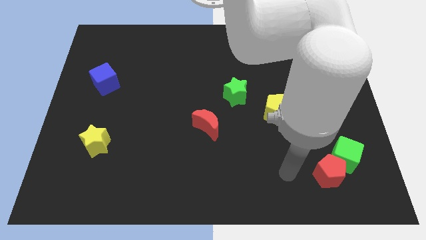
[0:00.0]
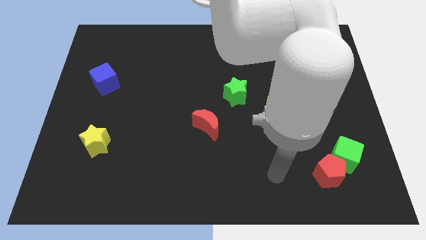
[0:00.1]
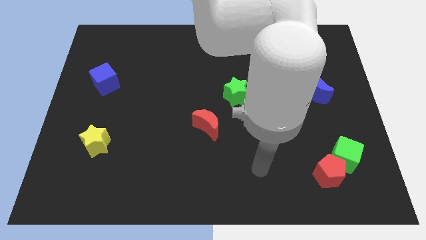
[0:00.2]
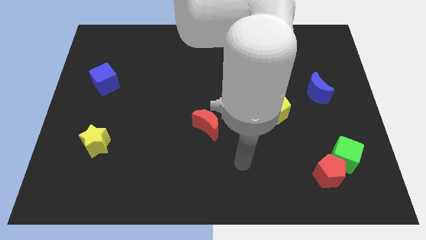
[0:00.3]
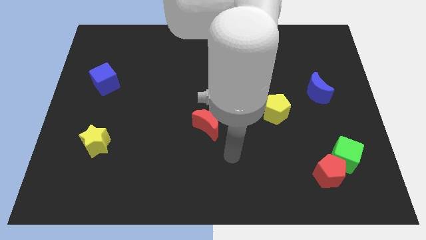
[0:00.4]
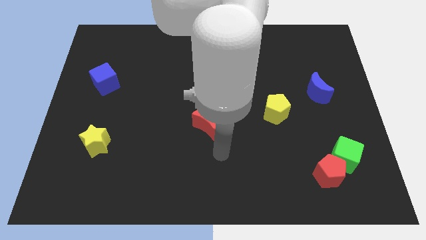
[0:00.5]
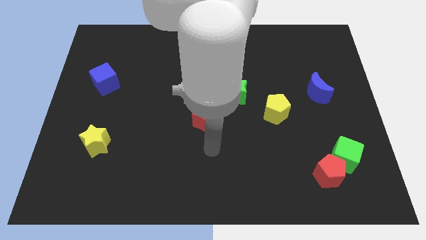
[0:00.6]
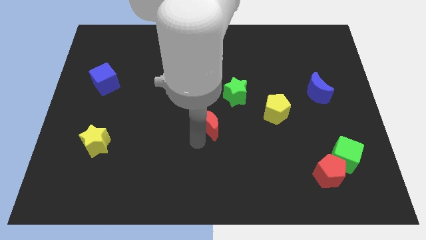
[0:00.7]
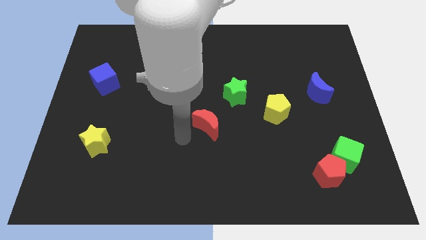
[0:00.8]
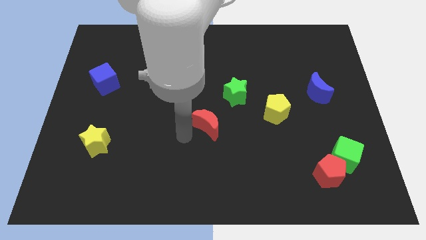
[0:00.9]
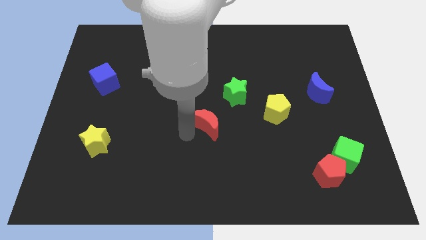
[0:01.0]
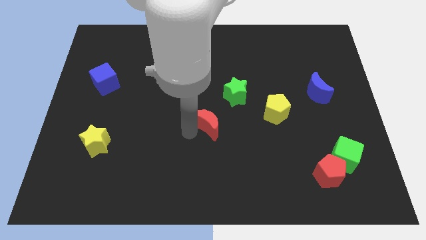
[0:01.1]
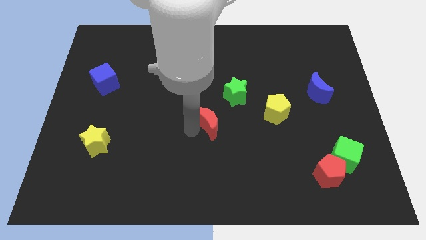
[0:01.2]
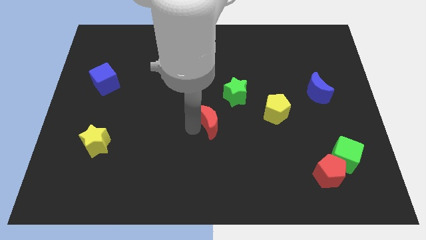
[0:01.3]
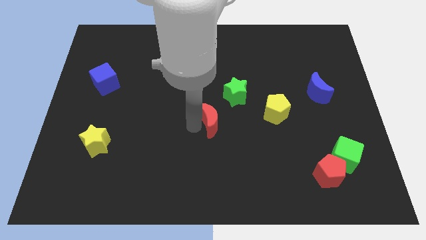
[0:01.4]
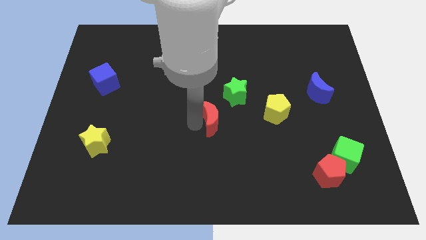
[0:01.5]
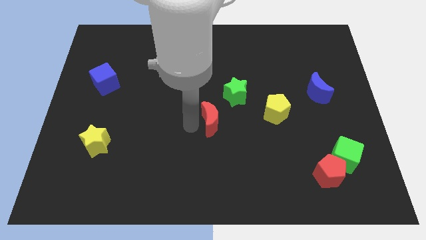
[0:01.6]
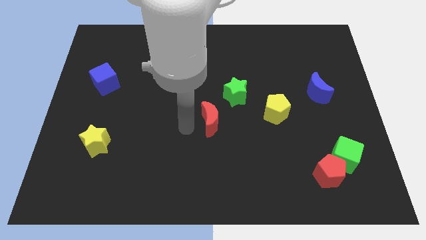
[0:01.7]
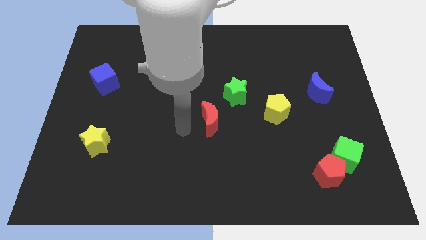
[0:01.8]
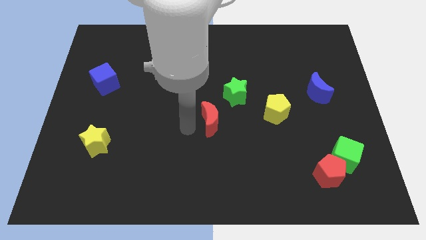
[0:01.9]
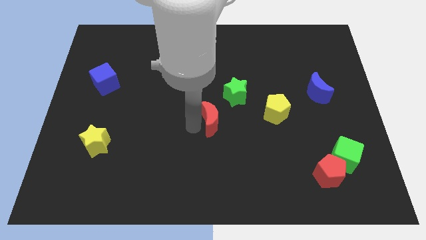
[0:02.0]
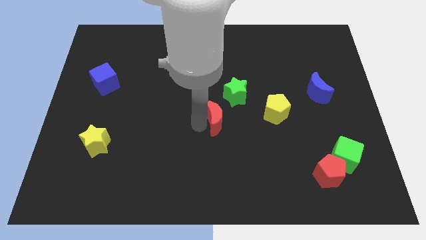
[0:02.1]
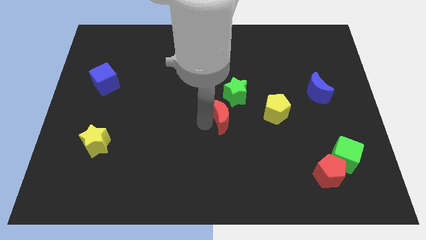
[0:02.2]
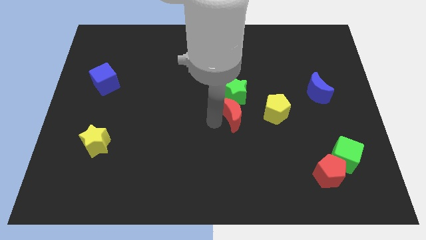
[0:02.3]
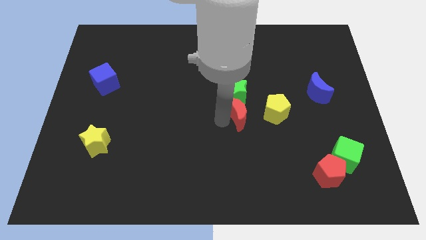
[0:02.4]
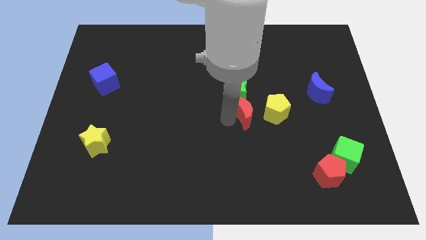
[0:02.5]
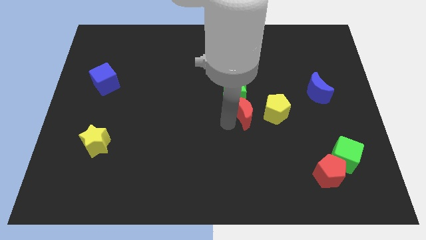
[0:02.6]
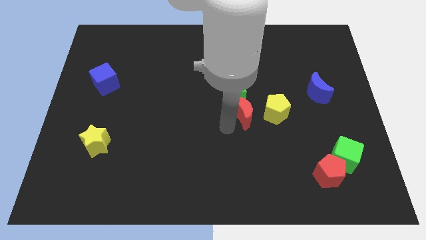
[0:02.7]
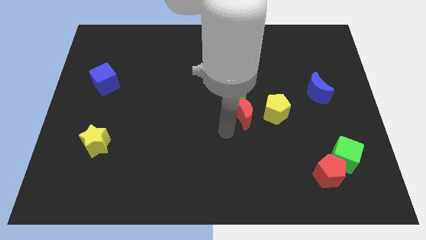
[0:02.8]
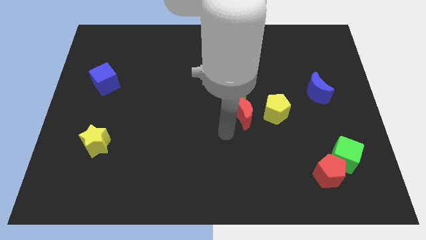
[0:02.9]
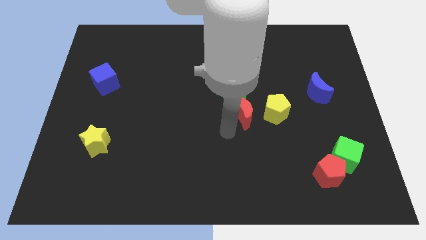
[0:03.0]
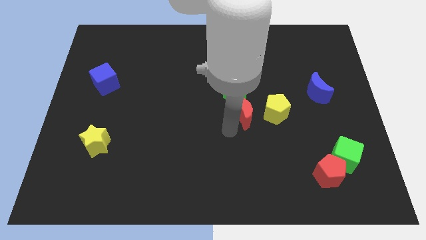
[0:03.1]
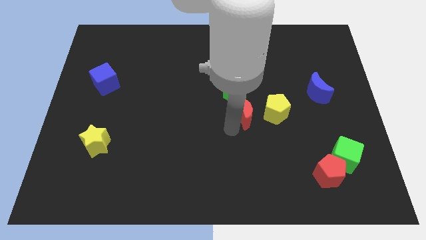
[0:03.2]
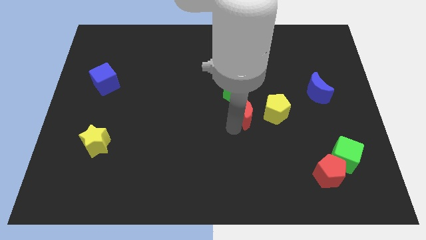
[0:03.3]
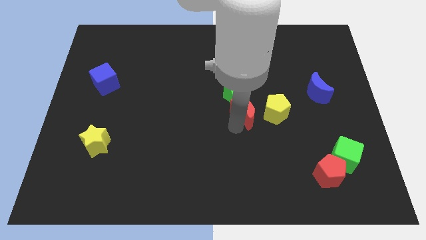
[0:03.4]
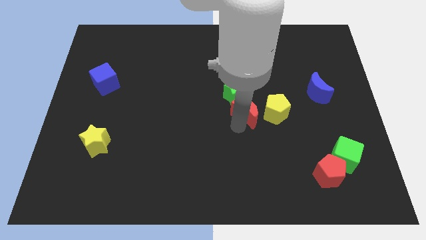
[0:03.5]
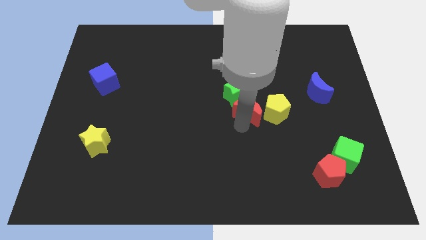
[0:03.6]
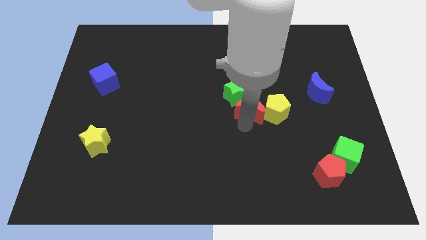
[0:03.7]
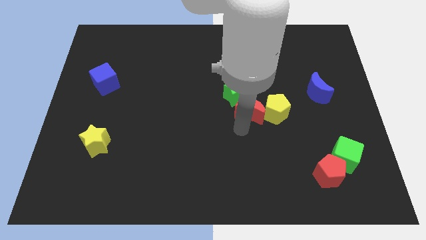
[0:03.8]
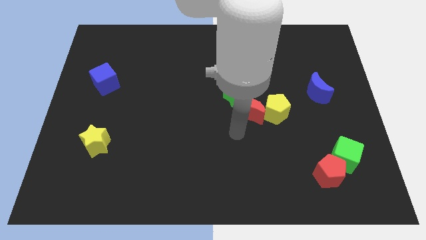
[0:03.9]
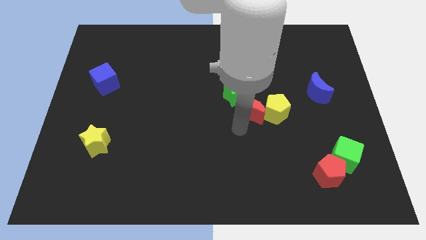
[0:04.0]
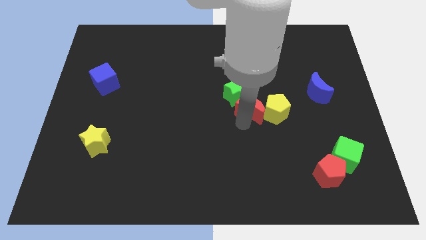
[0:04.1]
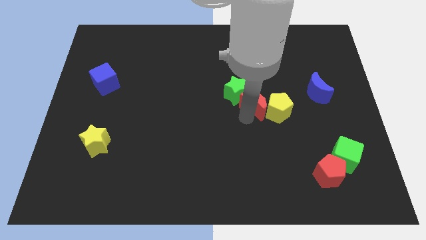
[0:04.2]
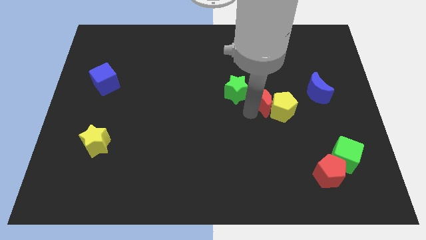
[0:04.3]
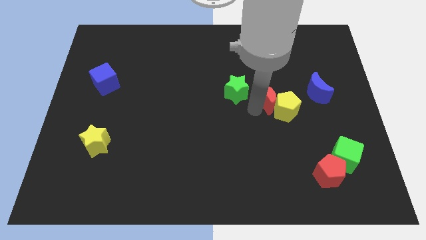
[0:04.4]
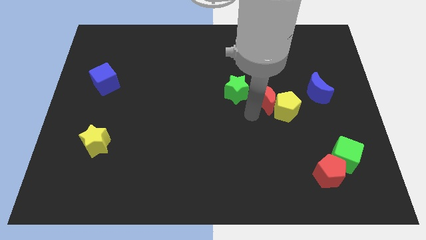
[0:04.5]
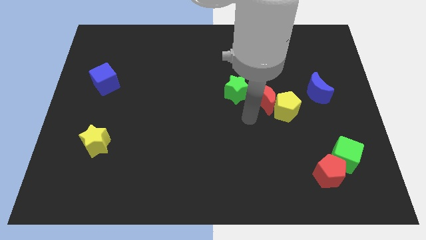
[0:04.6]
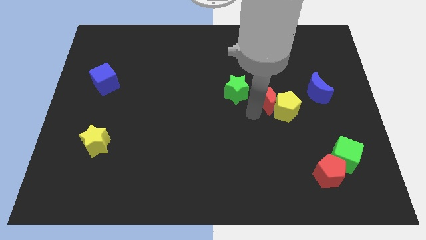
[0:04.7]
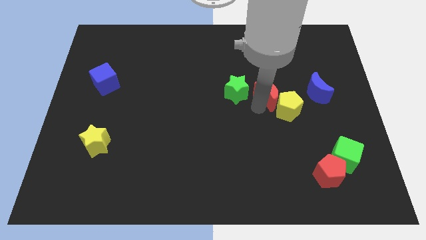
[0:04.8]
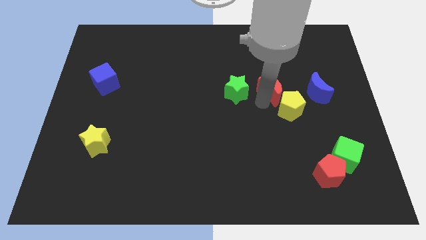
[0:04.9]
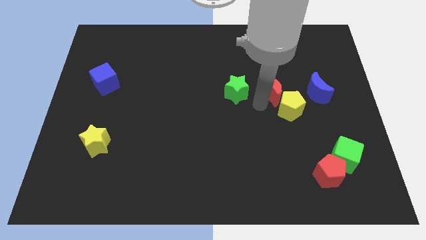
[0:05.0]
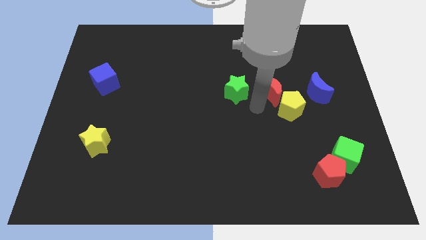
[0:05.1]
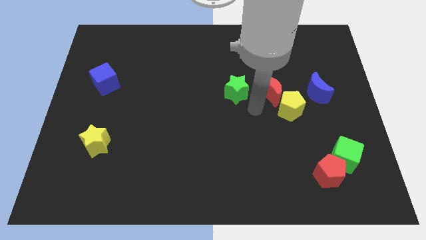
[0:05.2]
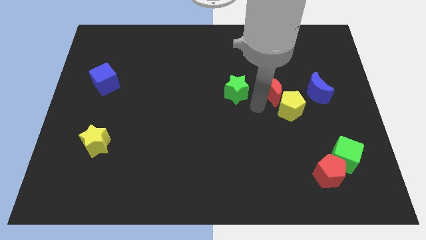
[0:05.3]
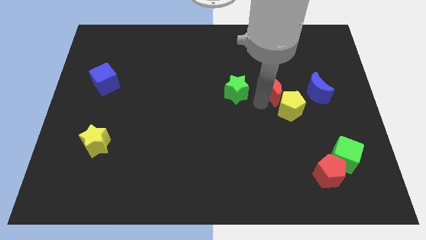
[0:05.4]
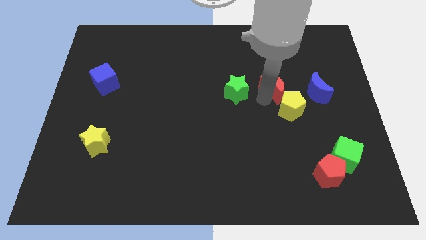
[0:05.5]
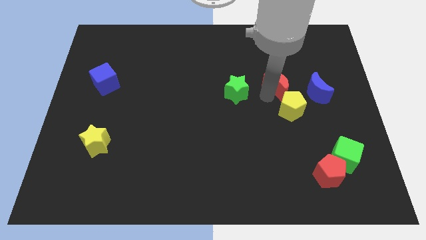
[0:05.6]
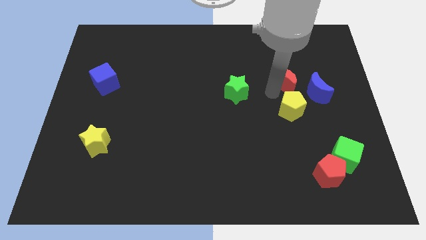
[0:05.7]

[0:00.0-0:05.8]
push the red moon diagonally up and right

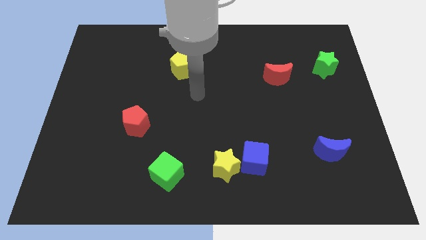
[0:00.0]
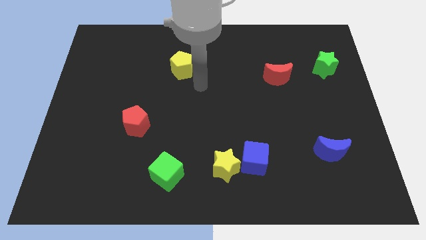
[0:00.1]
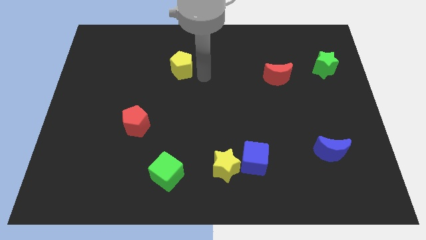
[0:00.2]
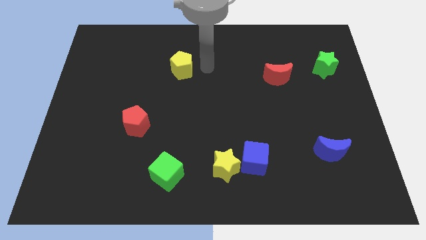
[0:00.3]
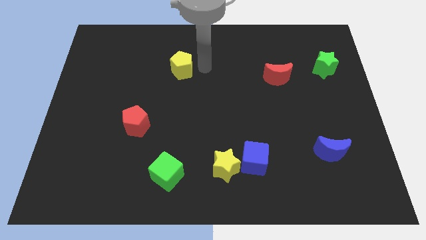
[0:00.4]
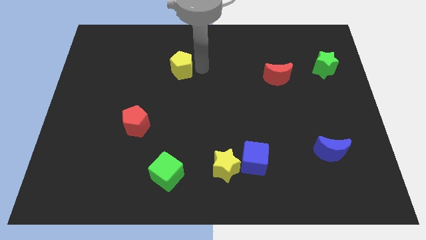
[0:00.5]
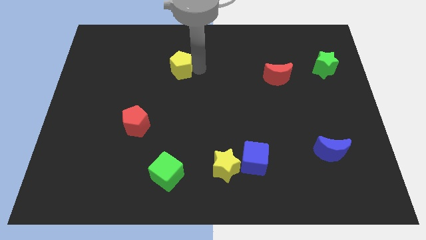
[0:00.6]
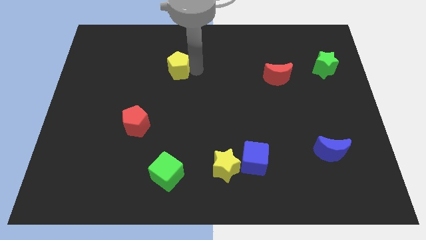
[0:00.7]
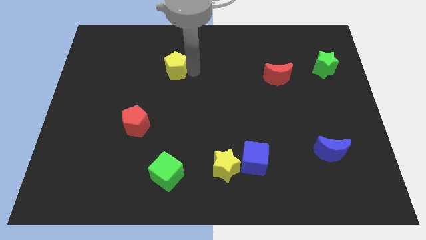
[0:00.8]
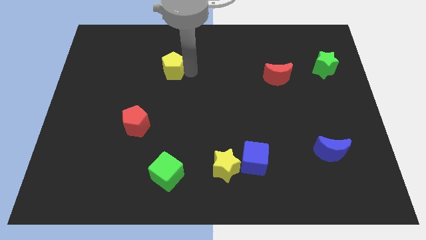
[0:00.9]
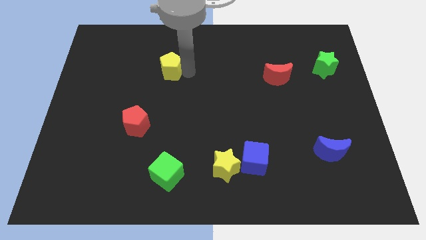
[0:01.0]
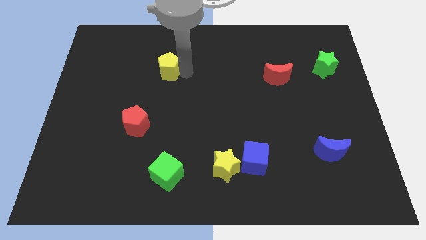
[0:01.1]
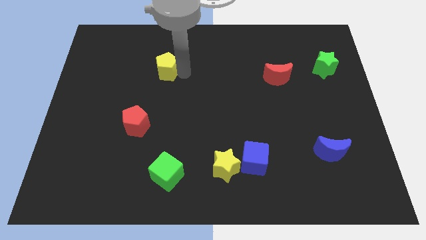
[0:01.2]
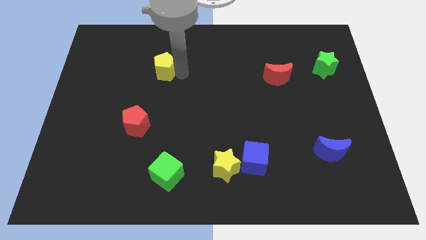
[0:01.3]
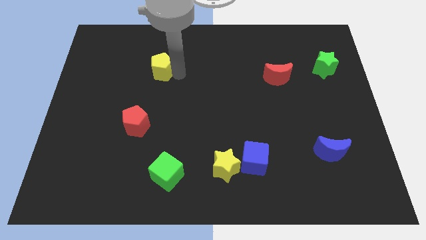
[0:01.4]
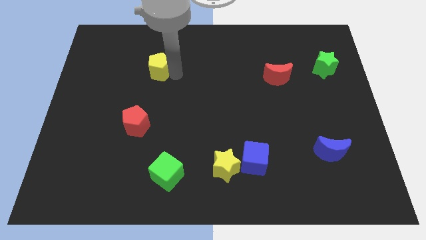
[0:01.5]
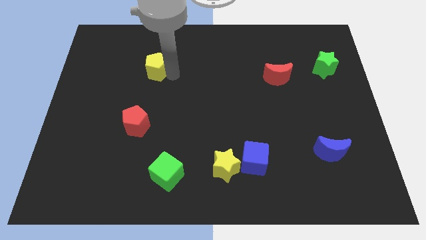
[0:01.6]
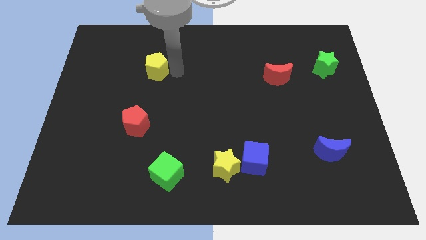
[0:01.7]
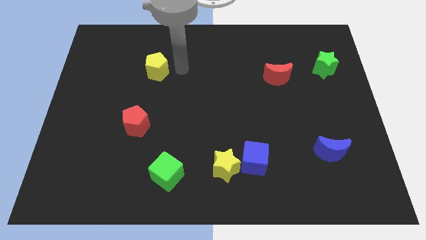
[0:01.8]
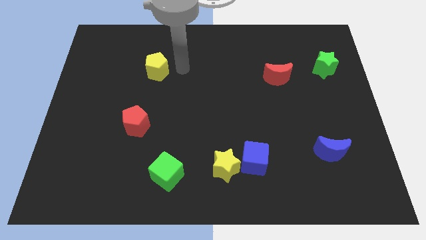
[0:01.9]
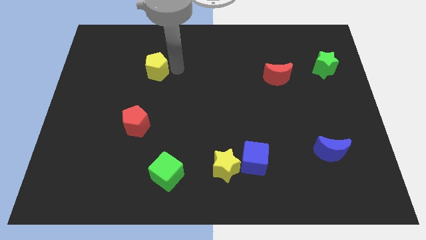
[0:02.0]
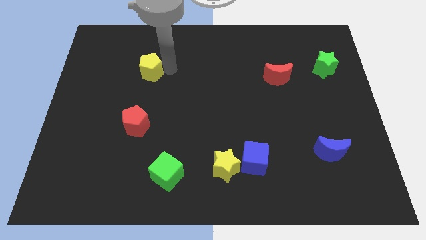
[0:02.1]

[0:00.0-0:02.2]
push the yellow pentagon left somewhat
